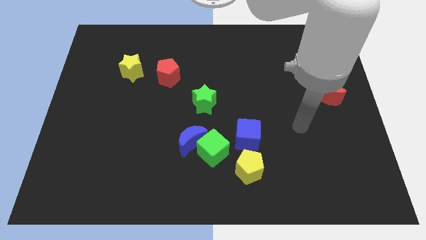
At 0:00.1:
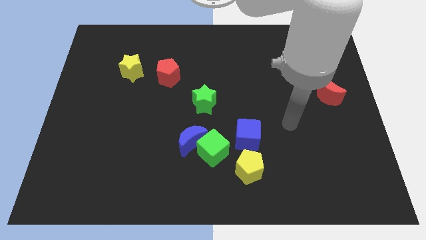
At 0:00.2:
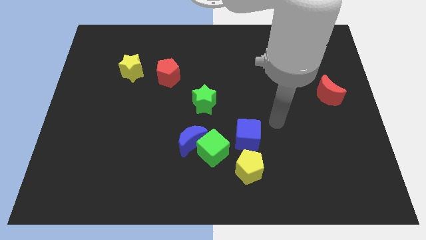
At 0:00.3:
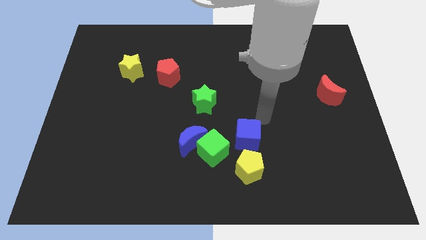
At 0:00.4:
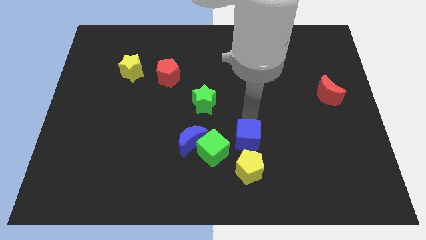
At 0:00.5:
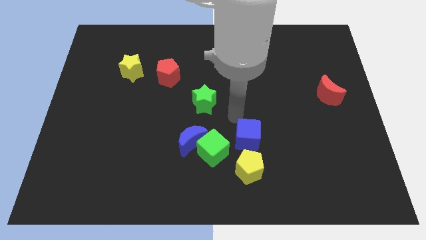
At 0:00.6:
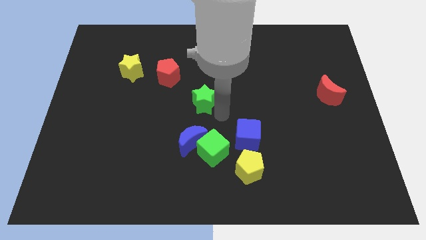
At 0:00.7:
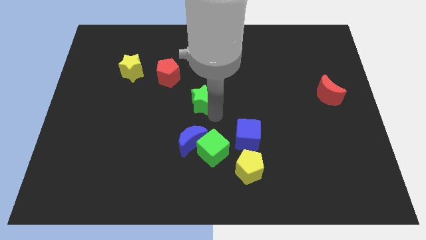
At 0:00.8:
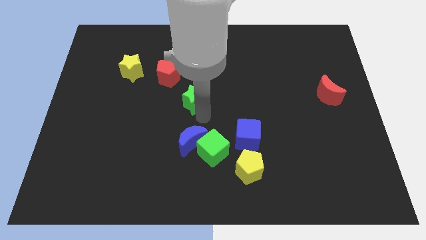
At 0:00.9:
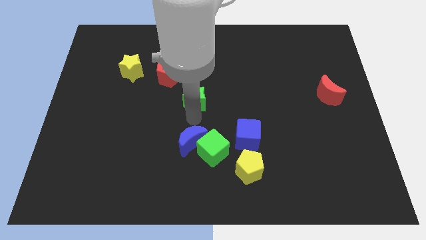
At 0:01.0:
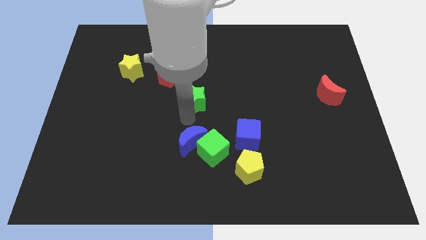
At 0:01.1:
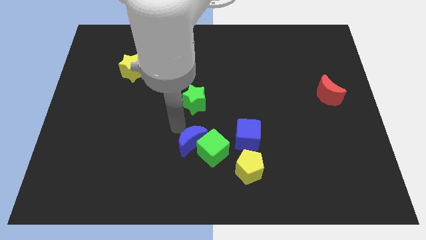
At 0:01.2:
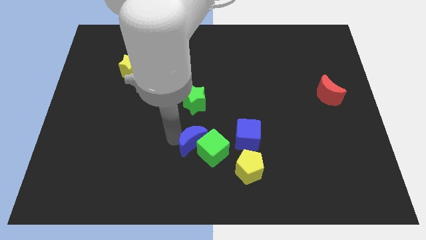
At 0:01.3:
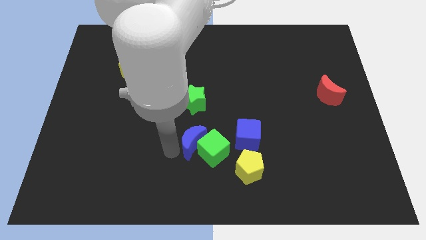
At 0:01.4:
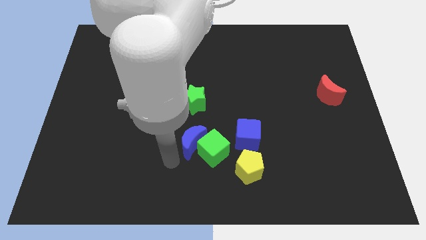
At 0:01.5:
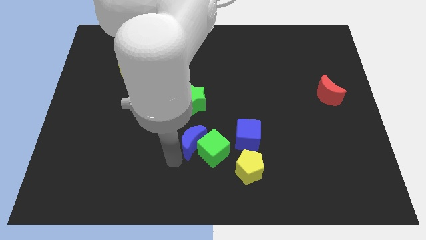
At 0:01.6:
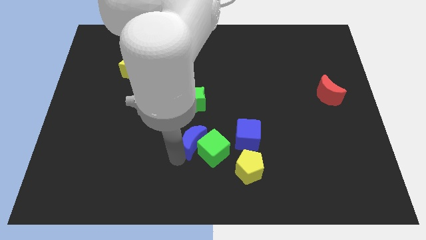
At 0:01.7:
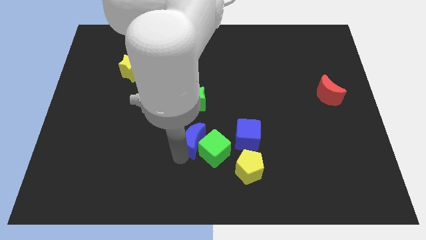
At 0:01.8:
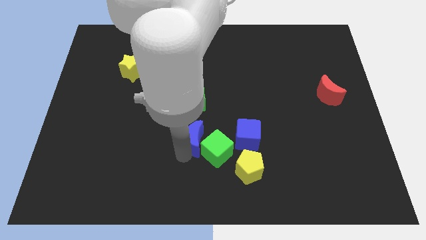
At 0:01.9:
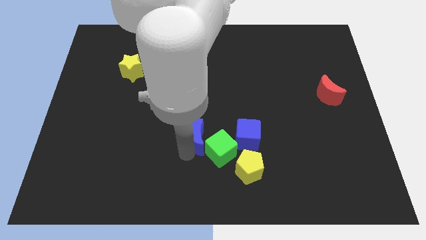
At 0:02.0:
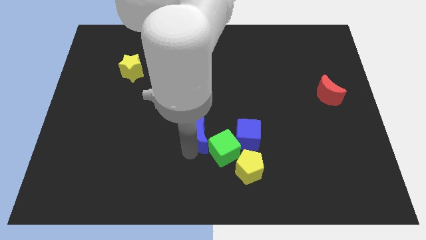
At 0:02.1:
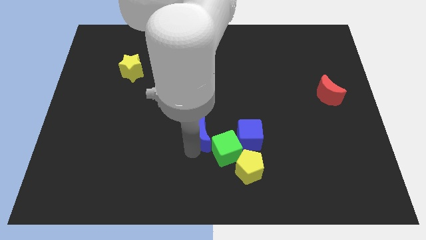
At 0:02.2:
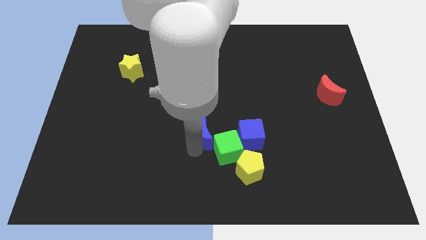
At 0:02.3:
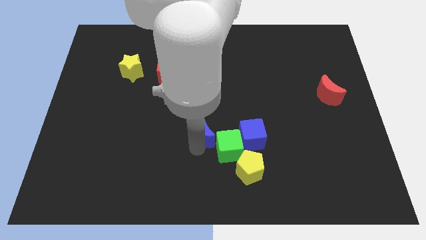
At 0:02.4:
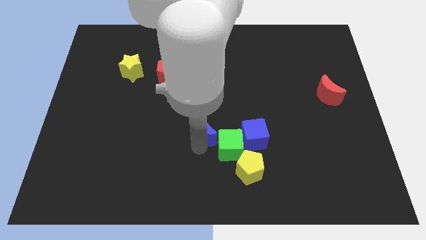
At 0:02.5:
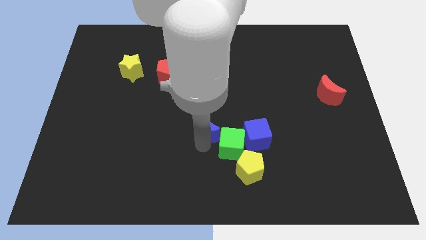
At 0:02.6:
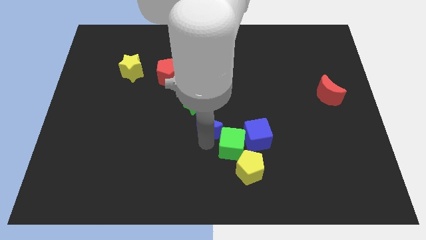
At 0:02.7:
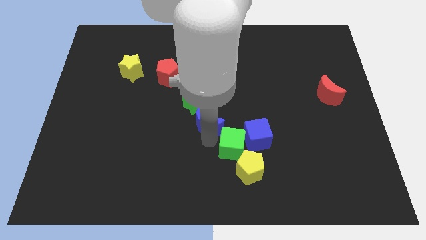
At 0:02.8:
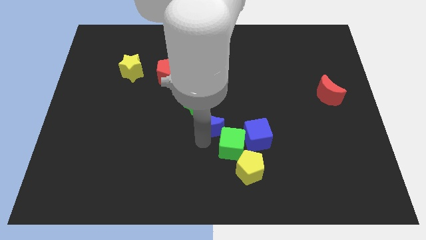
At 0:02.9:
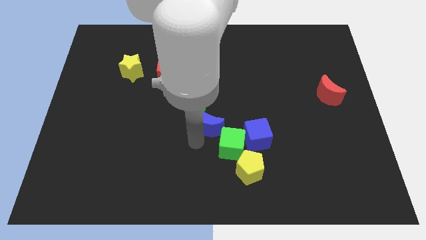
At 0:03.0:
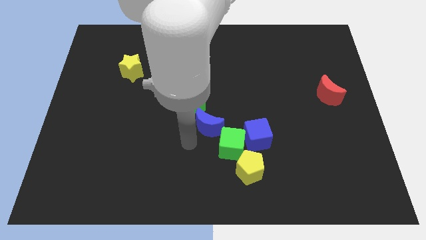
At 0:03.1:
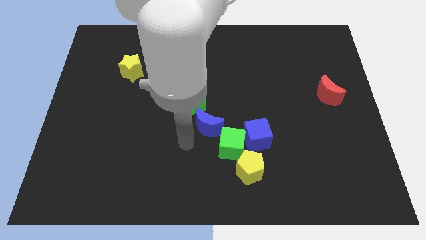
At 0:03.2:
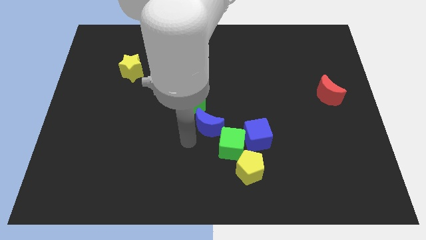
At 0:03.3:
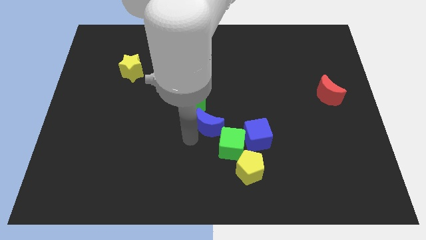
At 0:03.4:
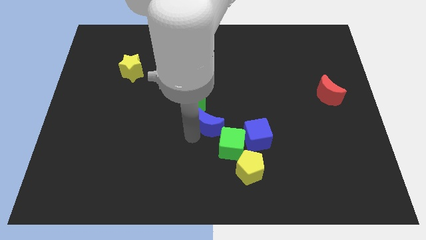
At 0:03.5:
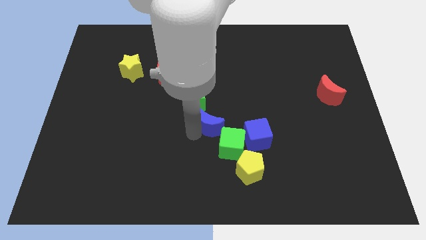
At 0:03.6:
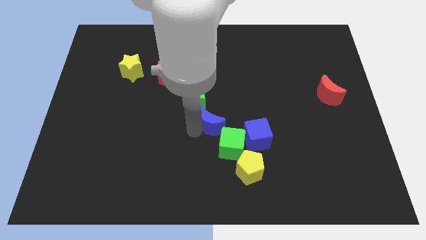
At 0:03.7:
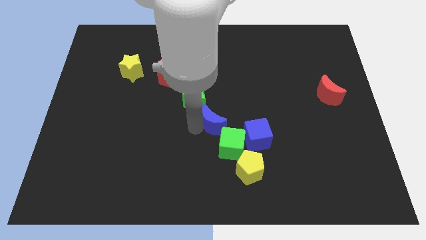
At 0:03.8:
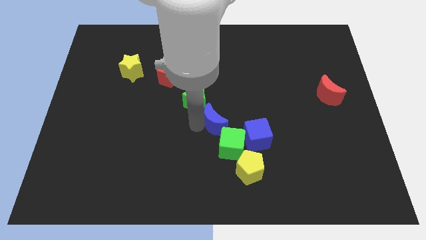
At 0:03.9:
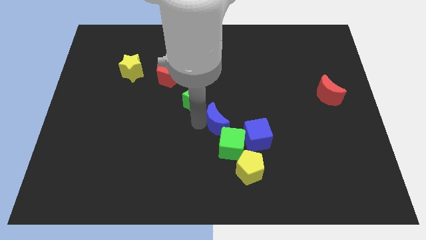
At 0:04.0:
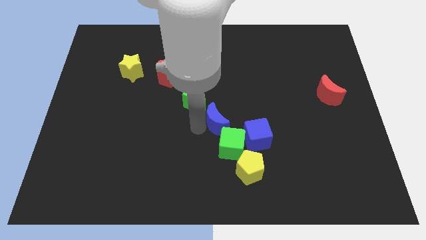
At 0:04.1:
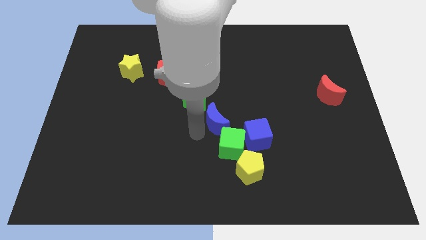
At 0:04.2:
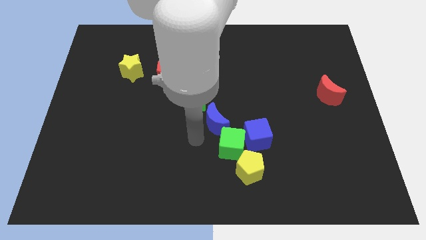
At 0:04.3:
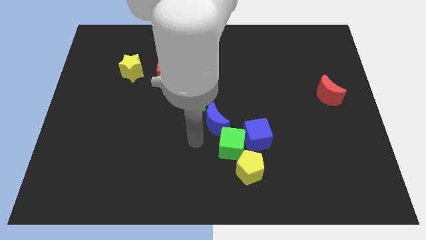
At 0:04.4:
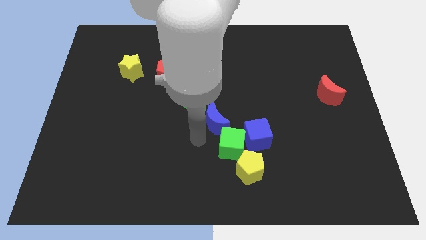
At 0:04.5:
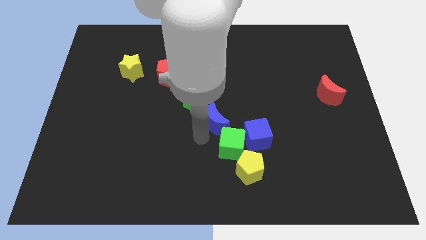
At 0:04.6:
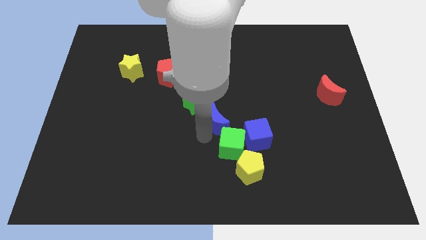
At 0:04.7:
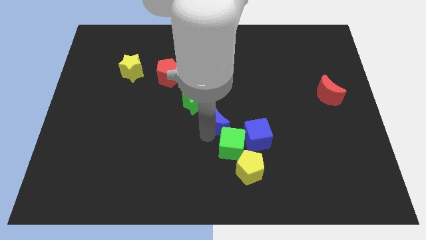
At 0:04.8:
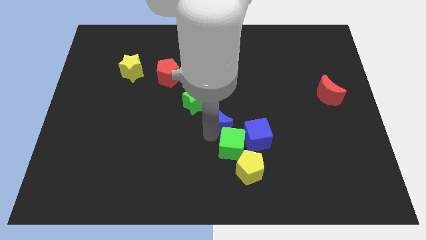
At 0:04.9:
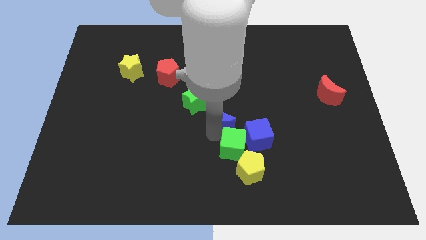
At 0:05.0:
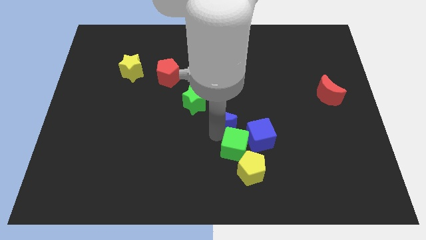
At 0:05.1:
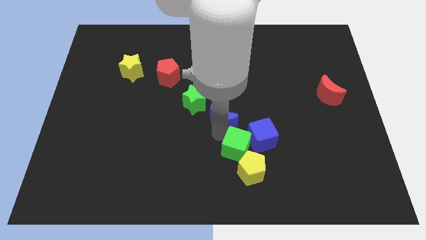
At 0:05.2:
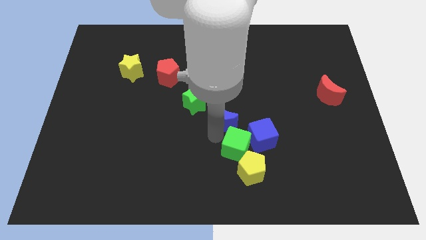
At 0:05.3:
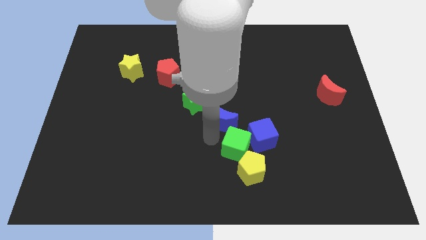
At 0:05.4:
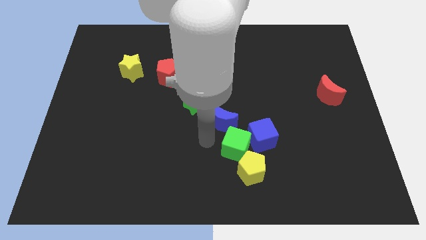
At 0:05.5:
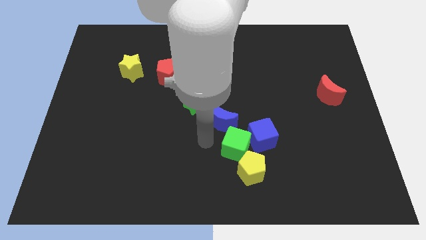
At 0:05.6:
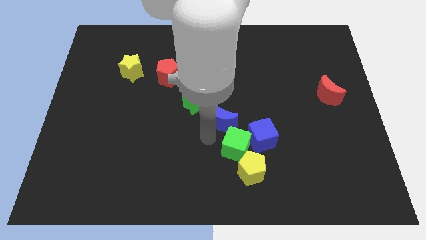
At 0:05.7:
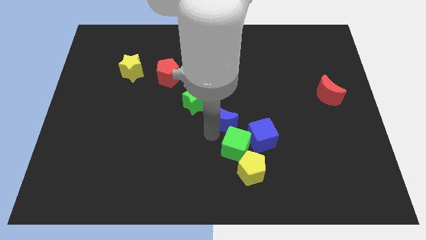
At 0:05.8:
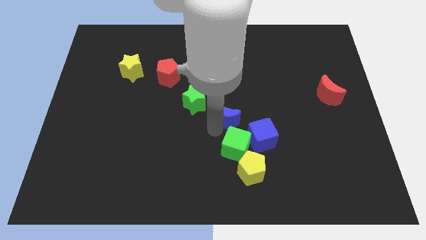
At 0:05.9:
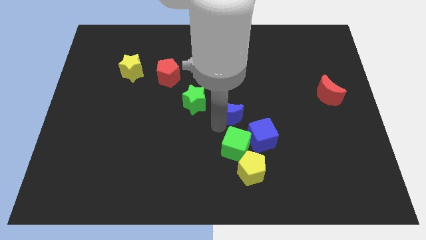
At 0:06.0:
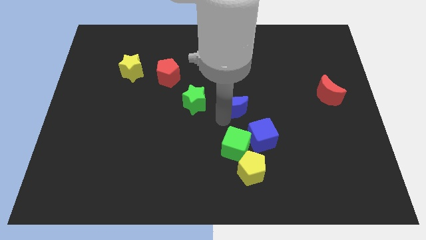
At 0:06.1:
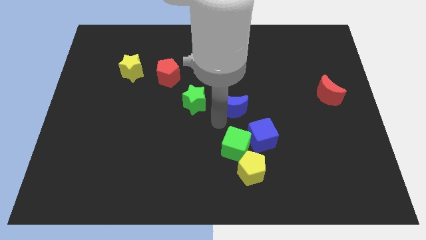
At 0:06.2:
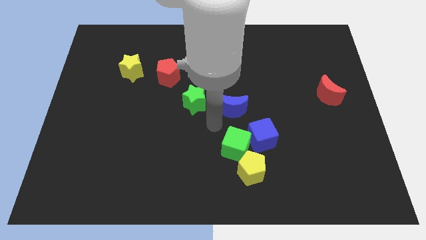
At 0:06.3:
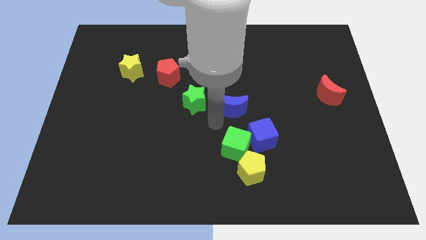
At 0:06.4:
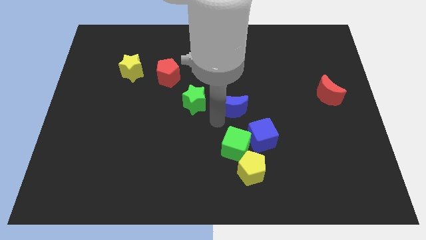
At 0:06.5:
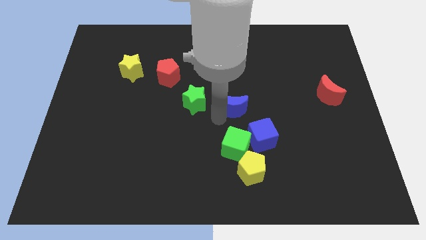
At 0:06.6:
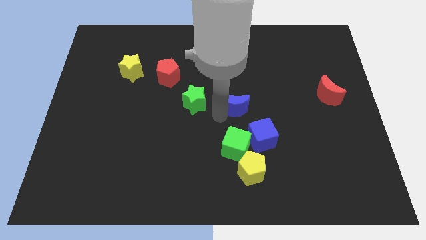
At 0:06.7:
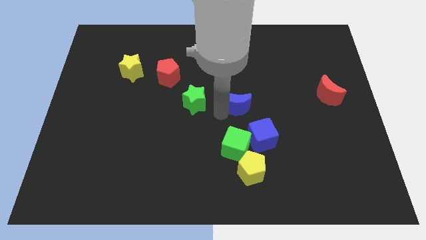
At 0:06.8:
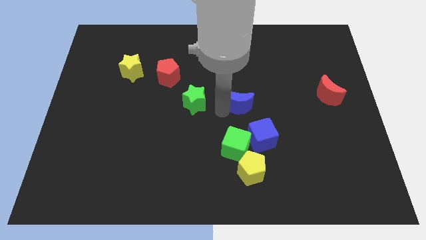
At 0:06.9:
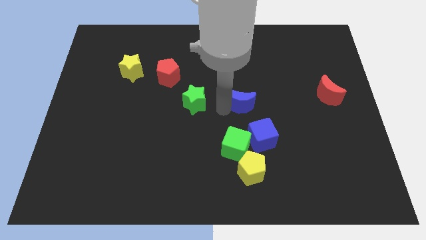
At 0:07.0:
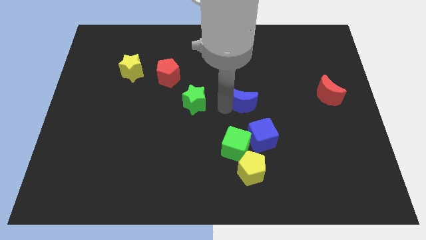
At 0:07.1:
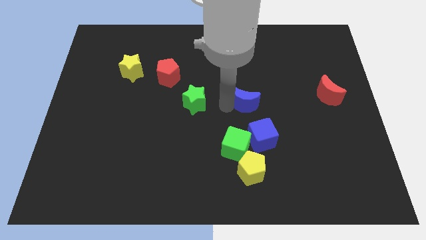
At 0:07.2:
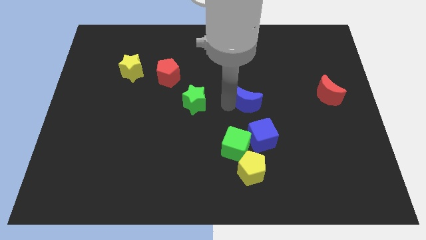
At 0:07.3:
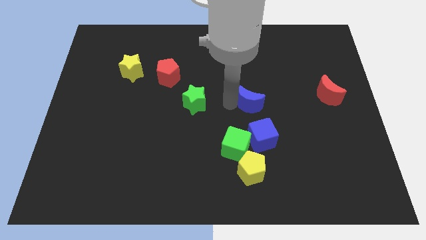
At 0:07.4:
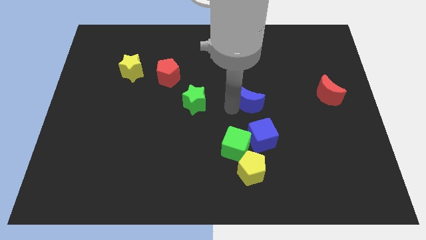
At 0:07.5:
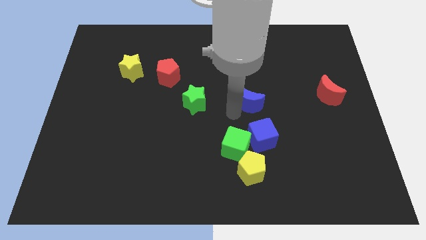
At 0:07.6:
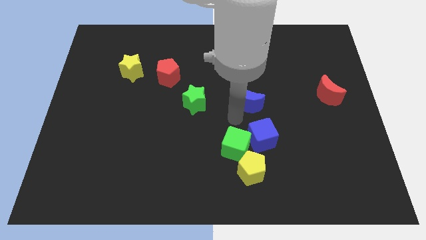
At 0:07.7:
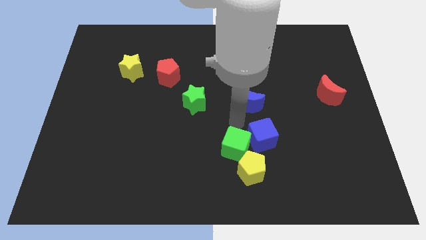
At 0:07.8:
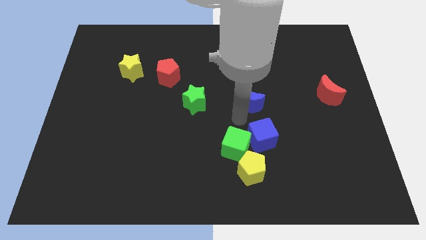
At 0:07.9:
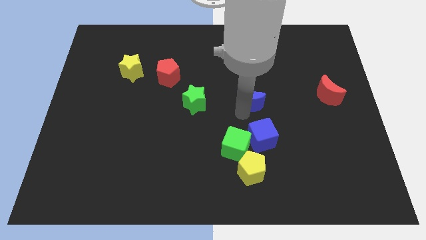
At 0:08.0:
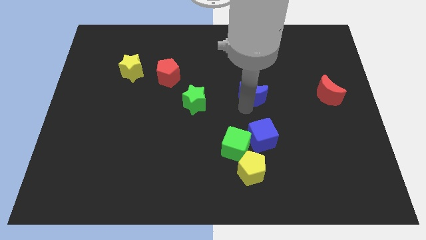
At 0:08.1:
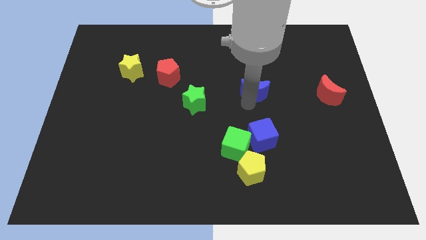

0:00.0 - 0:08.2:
push the blue moon diagonally up and right

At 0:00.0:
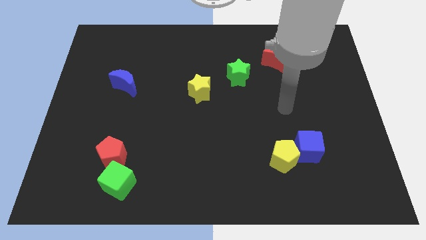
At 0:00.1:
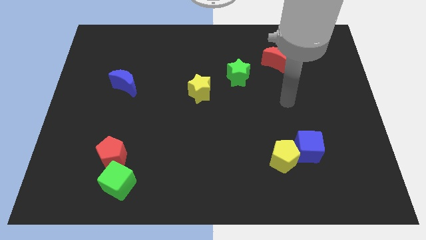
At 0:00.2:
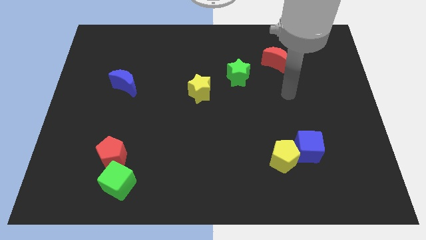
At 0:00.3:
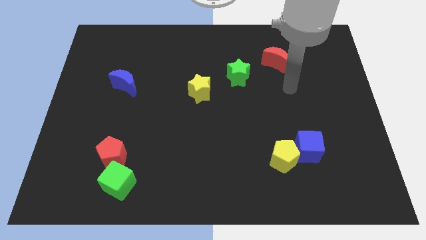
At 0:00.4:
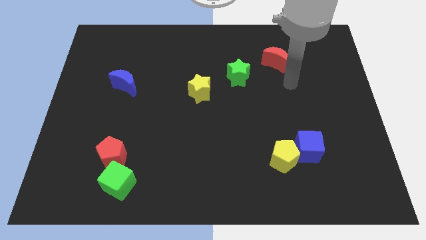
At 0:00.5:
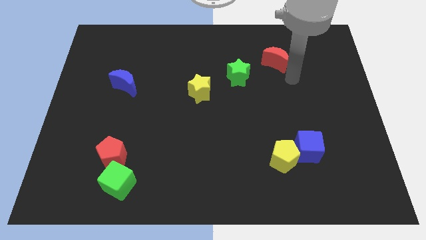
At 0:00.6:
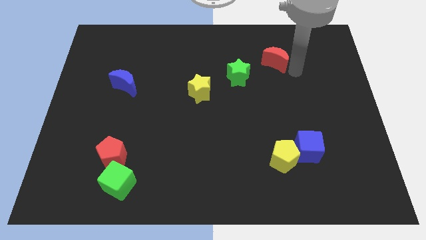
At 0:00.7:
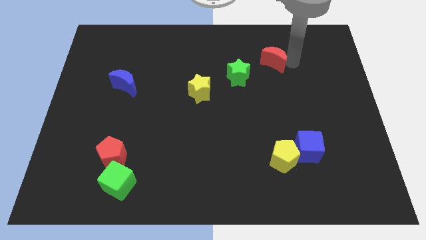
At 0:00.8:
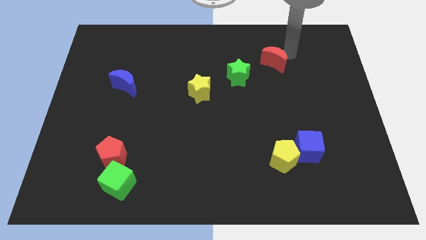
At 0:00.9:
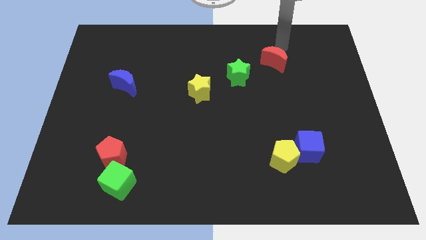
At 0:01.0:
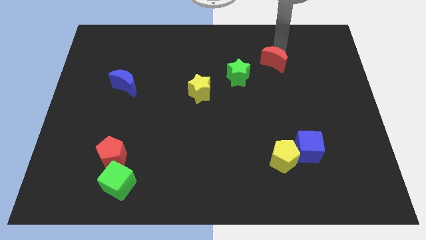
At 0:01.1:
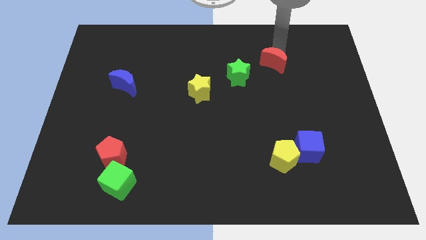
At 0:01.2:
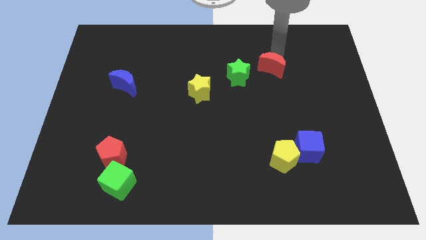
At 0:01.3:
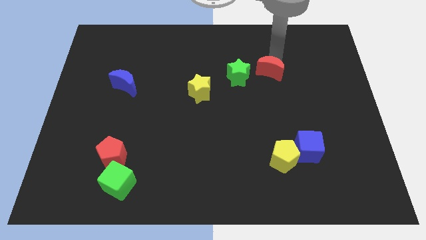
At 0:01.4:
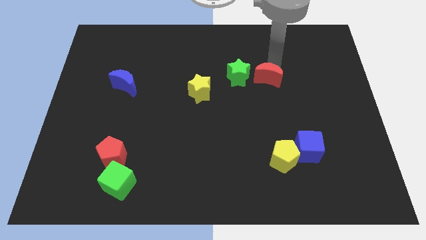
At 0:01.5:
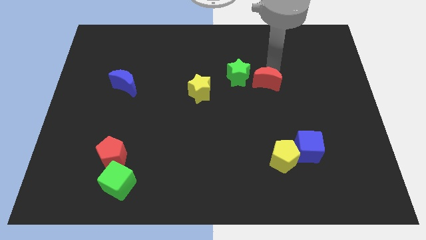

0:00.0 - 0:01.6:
move the red moon downwards and then left somewhat
